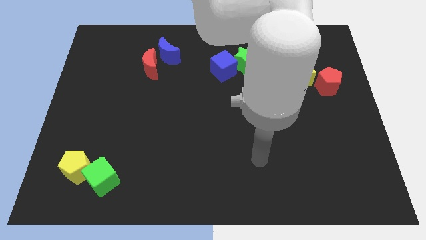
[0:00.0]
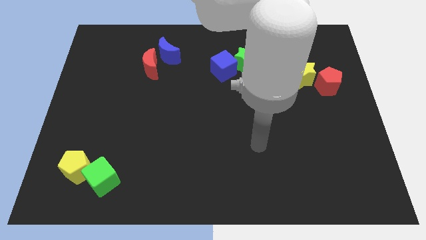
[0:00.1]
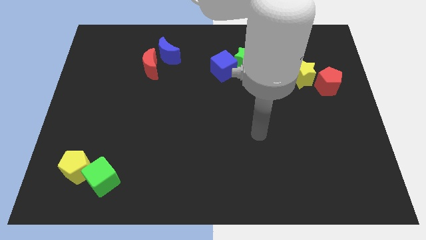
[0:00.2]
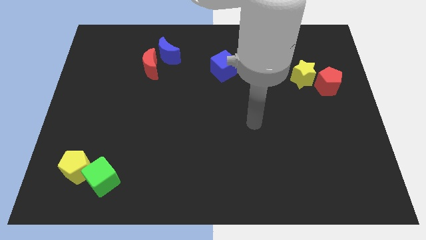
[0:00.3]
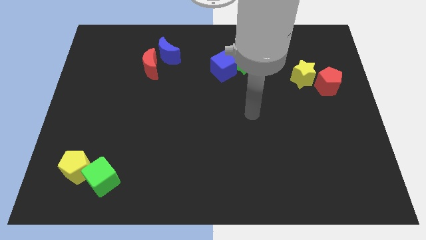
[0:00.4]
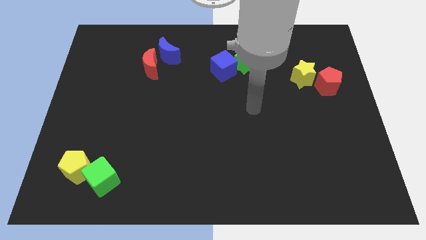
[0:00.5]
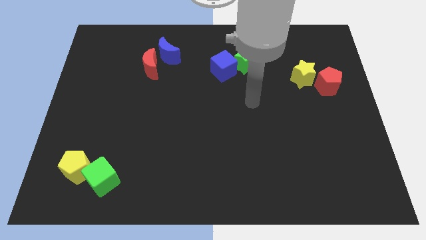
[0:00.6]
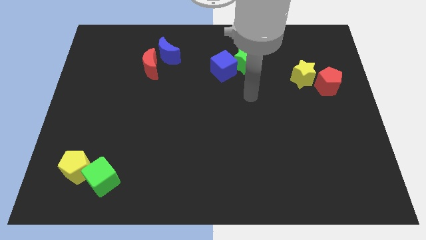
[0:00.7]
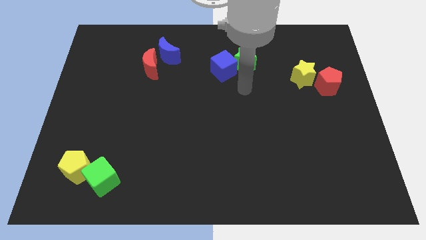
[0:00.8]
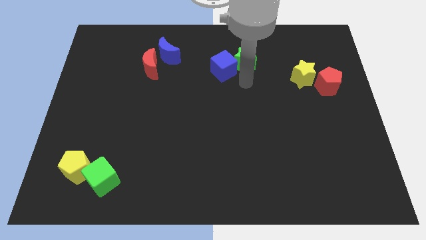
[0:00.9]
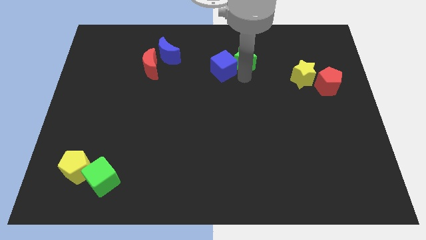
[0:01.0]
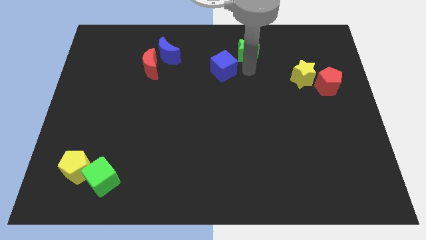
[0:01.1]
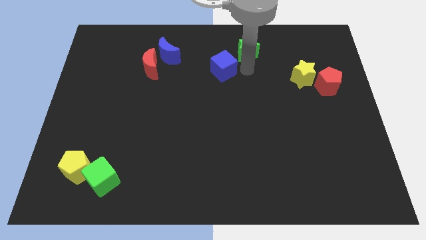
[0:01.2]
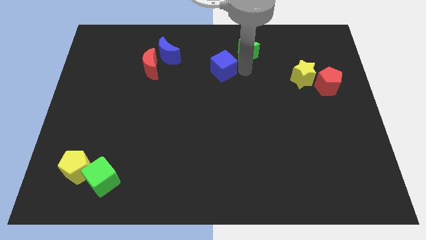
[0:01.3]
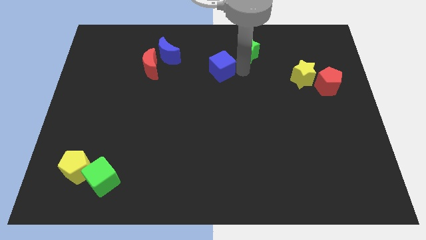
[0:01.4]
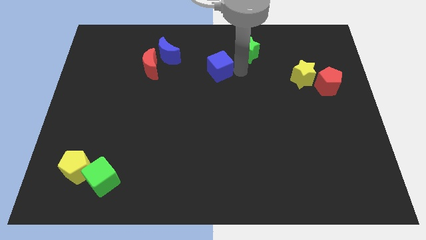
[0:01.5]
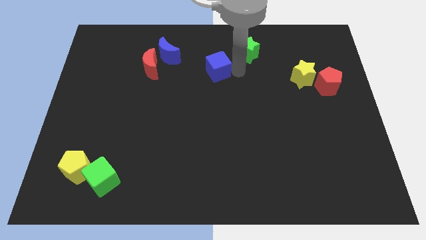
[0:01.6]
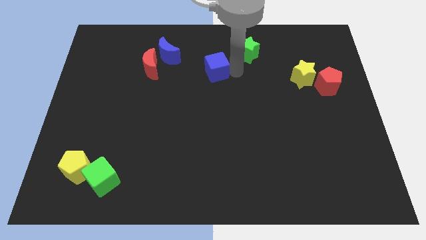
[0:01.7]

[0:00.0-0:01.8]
move the blue cube away from the green star

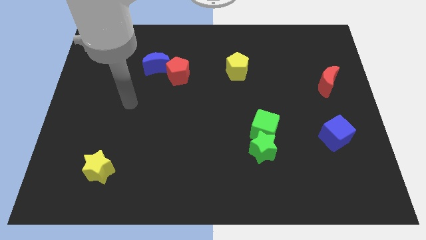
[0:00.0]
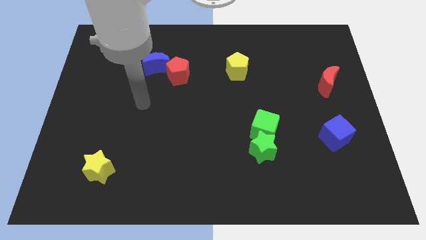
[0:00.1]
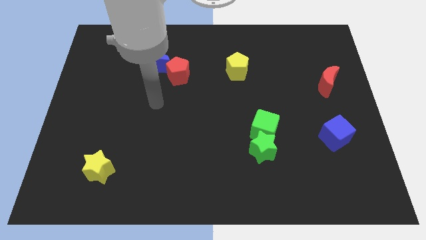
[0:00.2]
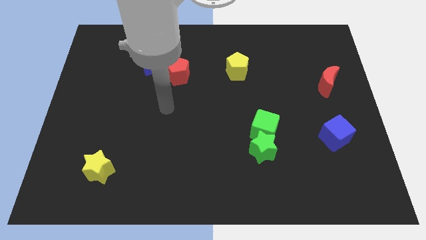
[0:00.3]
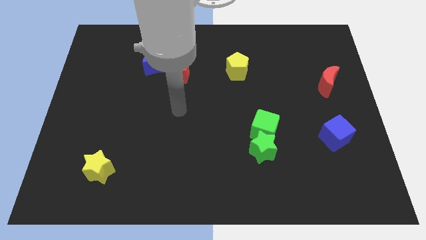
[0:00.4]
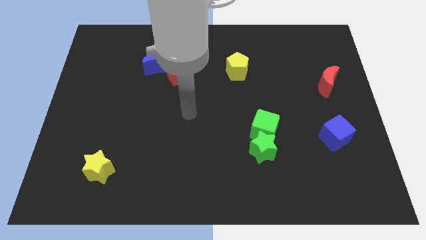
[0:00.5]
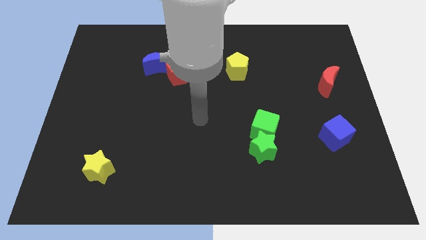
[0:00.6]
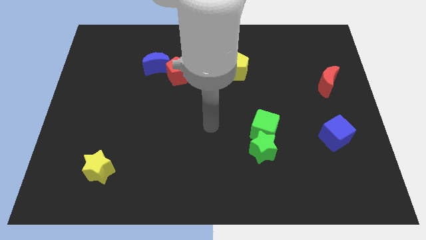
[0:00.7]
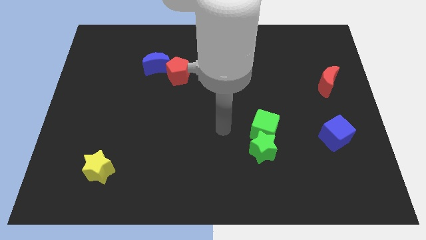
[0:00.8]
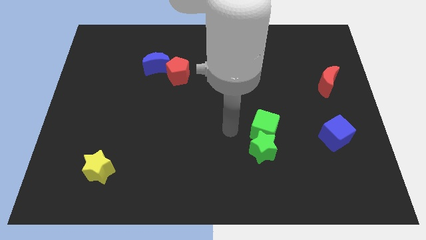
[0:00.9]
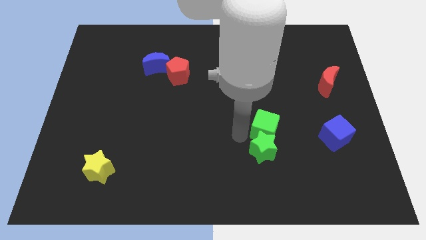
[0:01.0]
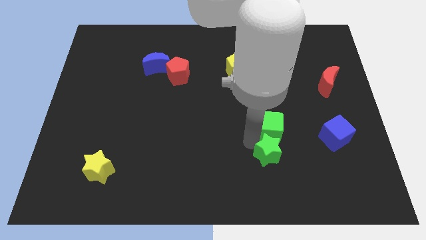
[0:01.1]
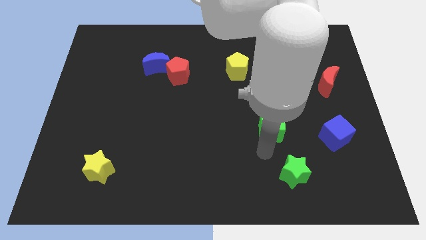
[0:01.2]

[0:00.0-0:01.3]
separate the green cube from the green star

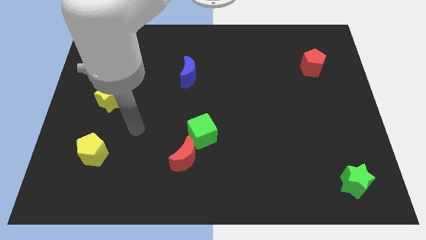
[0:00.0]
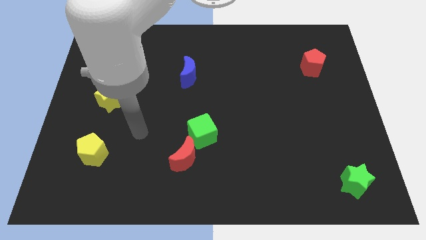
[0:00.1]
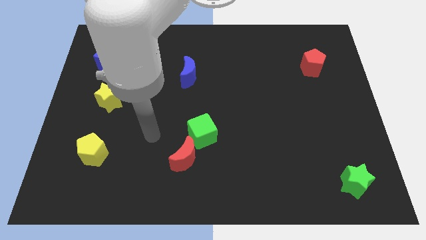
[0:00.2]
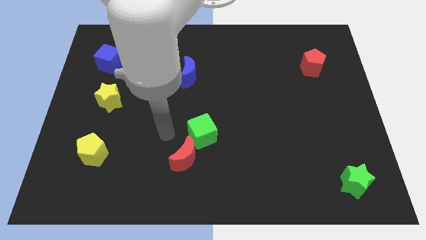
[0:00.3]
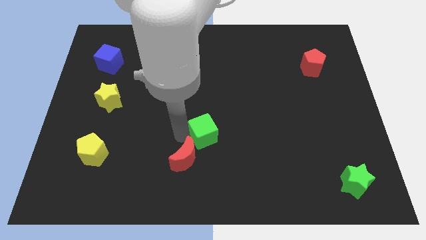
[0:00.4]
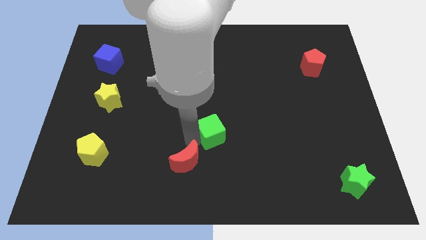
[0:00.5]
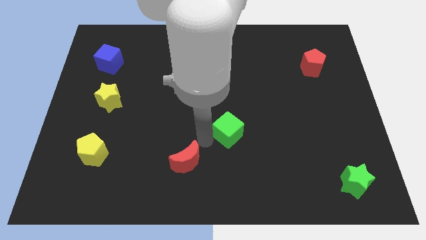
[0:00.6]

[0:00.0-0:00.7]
move the red moon away from the green cube

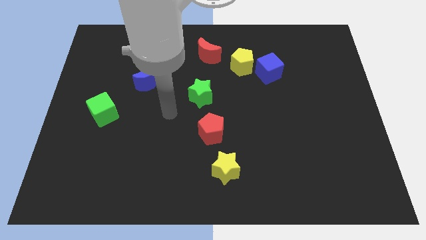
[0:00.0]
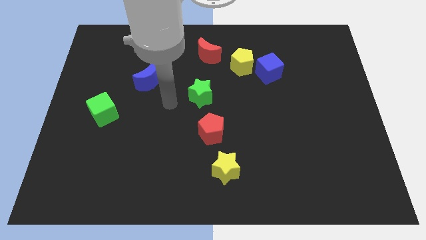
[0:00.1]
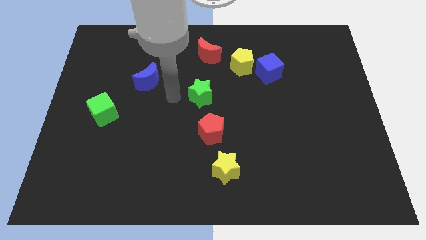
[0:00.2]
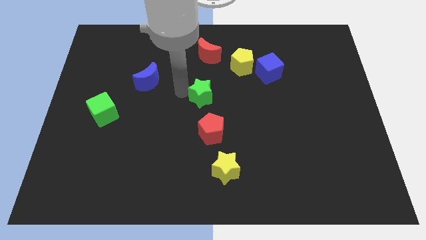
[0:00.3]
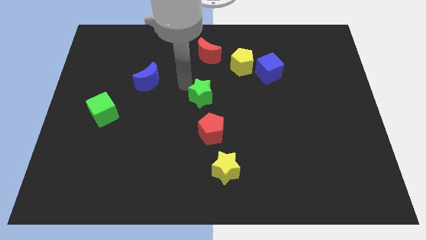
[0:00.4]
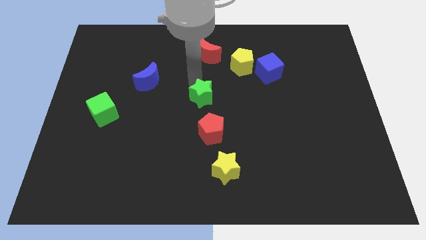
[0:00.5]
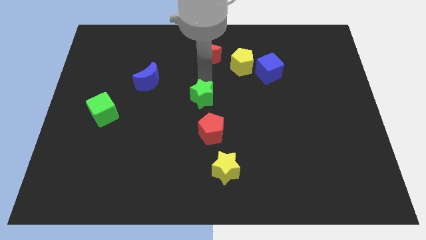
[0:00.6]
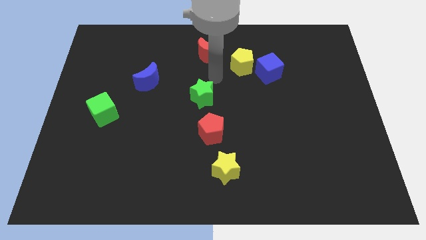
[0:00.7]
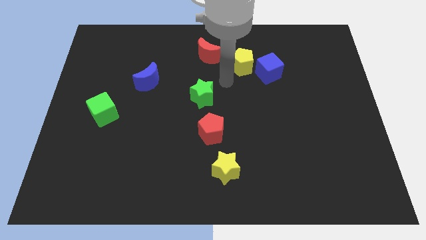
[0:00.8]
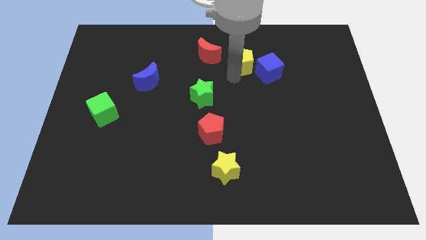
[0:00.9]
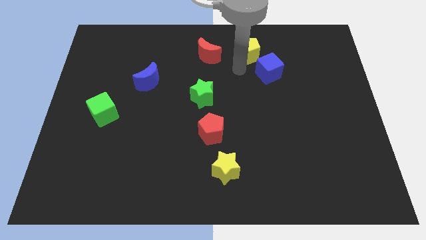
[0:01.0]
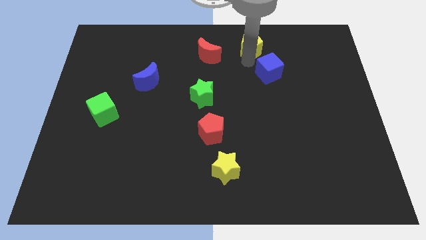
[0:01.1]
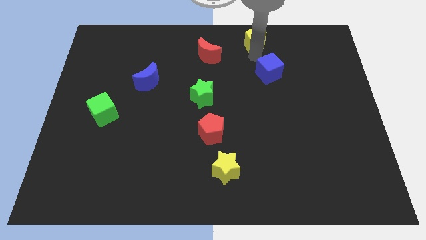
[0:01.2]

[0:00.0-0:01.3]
separate the blue cube from the yellow pentagon

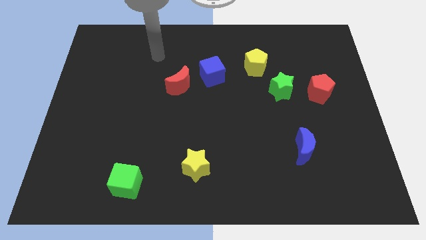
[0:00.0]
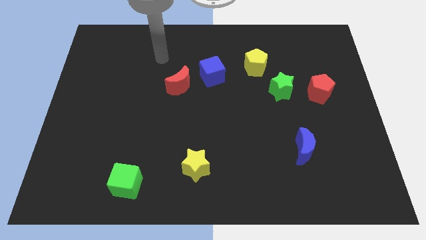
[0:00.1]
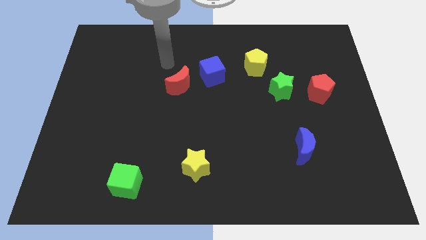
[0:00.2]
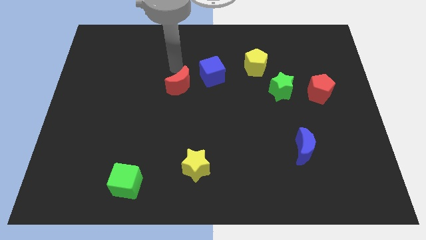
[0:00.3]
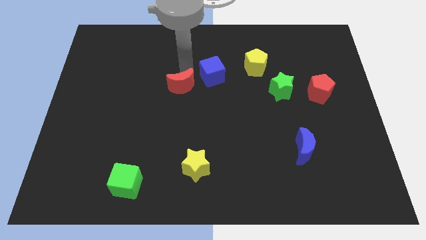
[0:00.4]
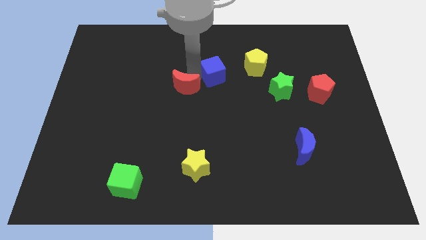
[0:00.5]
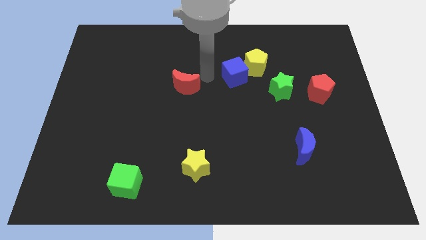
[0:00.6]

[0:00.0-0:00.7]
move the red moon away from the blue cube

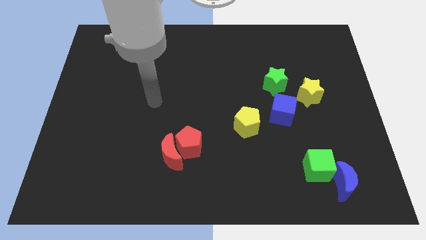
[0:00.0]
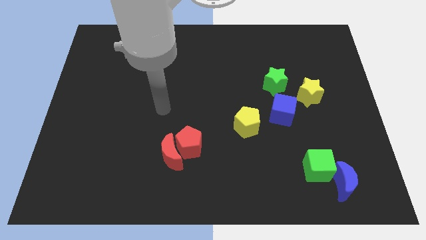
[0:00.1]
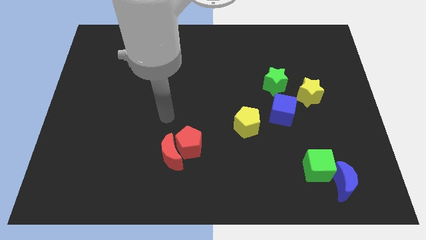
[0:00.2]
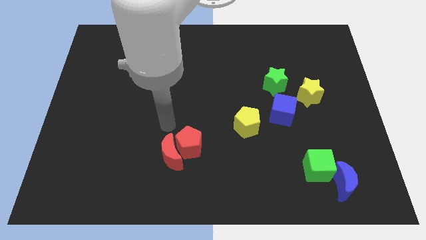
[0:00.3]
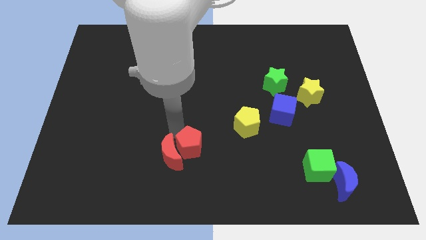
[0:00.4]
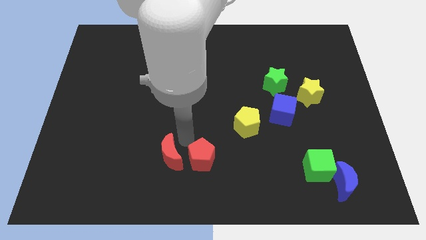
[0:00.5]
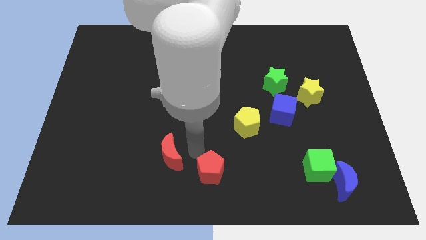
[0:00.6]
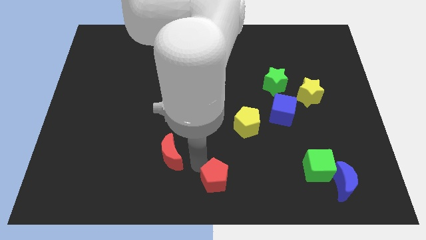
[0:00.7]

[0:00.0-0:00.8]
move the red moon away from the red pentagon

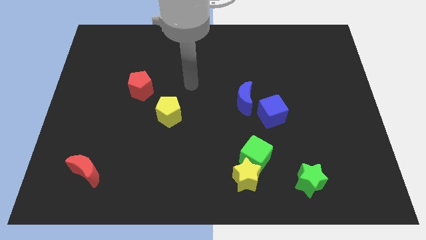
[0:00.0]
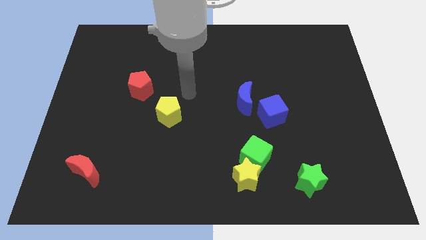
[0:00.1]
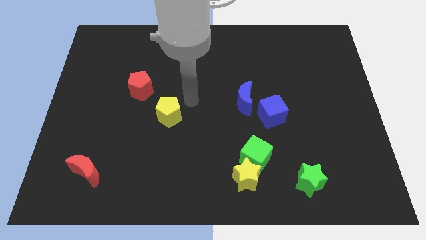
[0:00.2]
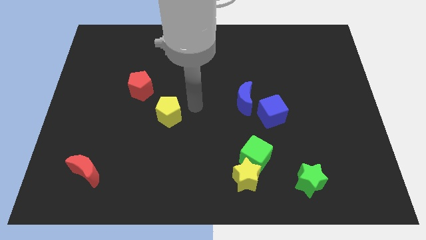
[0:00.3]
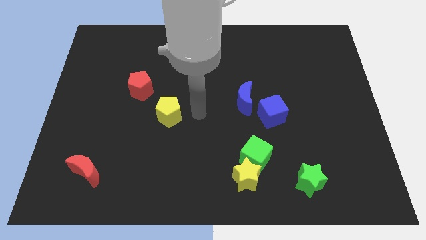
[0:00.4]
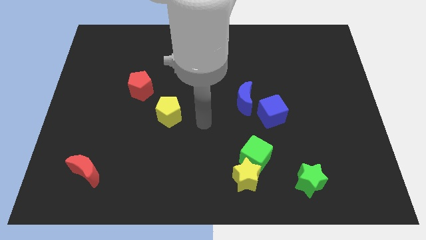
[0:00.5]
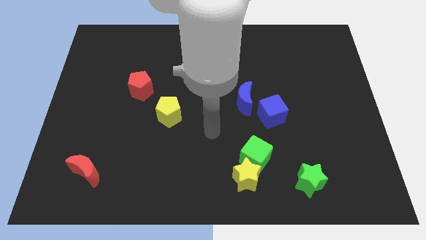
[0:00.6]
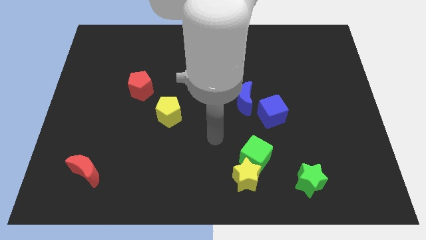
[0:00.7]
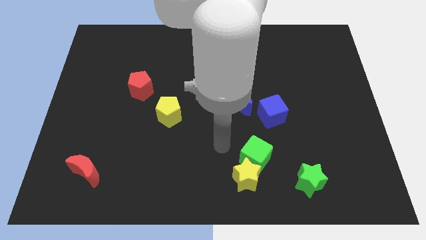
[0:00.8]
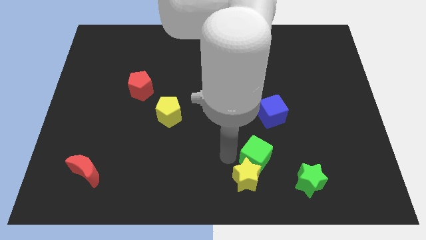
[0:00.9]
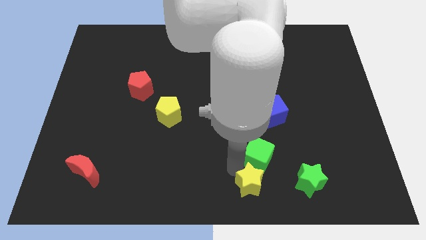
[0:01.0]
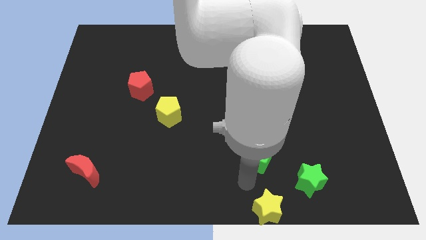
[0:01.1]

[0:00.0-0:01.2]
move the green cube away from the yellow star

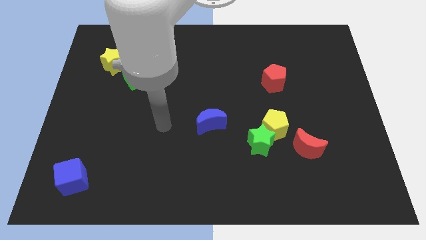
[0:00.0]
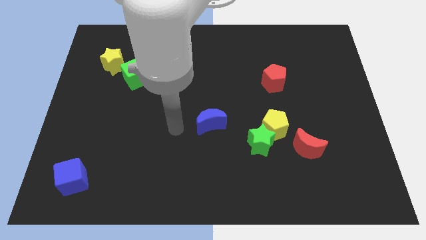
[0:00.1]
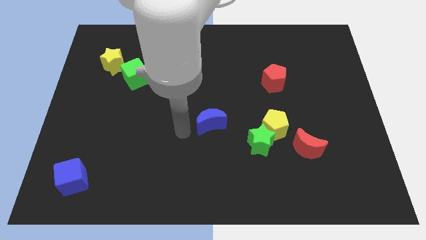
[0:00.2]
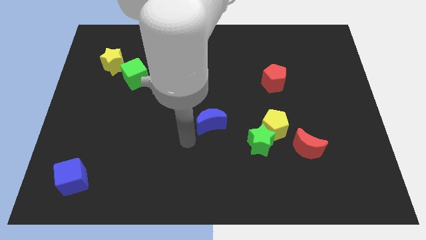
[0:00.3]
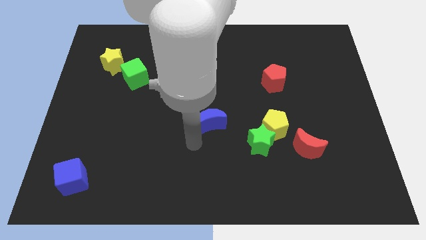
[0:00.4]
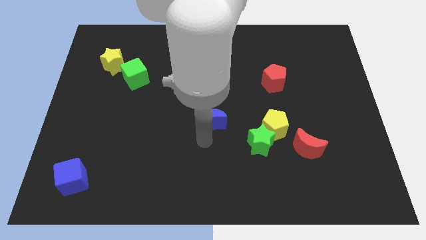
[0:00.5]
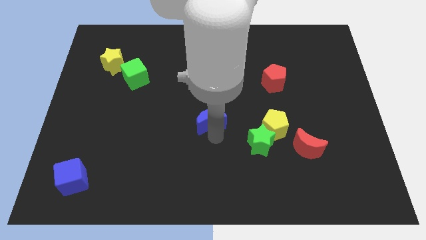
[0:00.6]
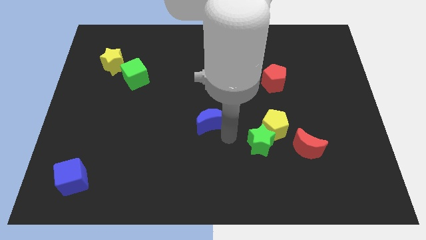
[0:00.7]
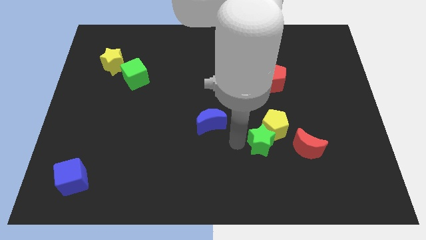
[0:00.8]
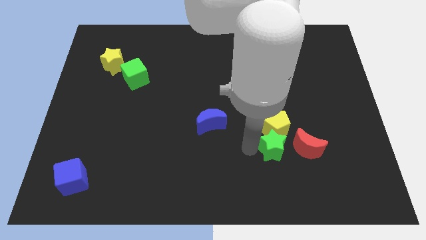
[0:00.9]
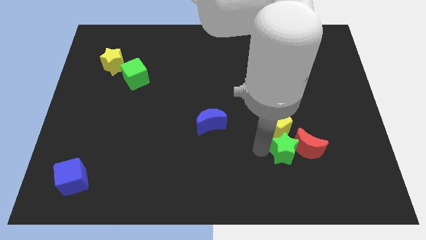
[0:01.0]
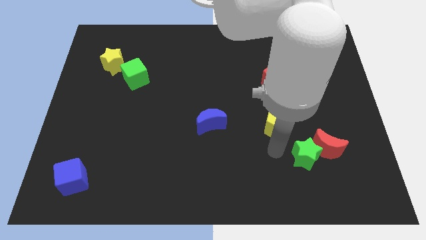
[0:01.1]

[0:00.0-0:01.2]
separate the yellow pentagon from the green star and red moon

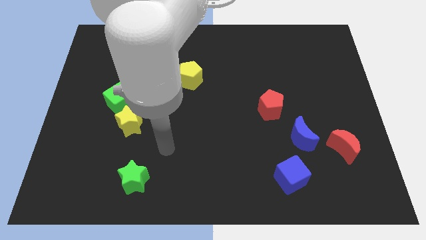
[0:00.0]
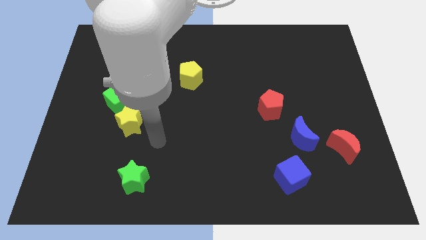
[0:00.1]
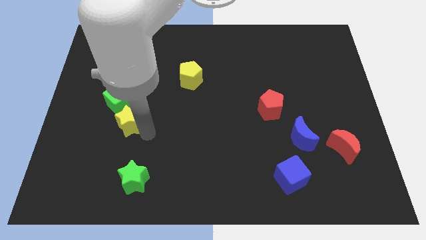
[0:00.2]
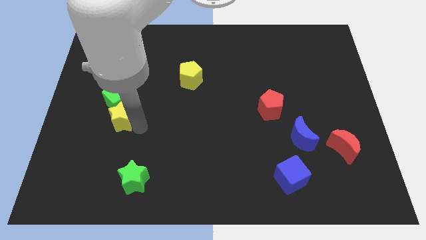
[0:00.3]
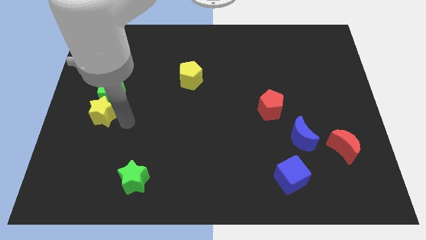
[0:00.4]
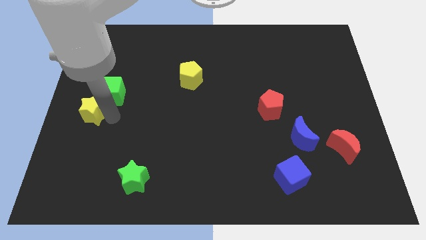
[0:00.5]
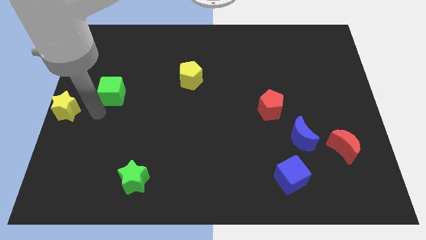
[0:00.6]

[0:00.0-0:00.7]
separate the green cube from the yellow star
